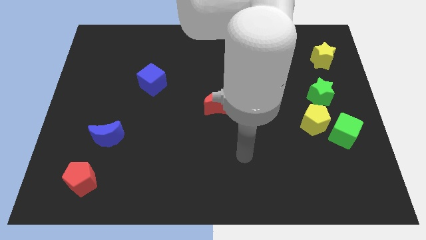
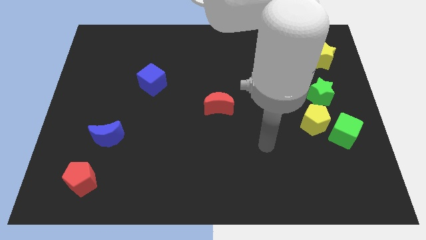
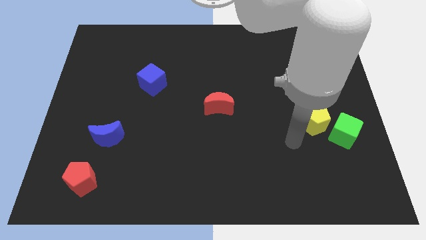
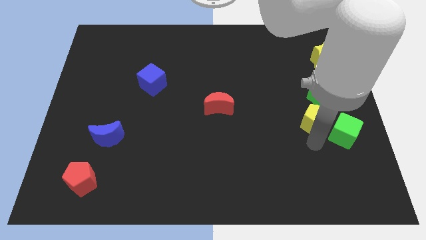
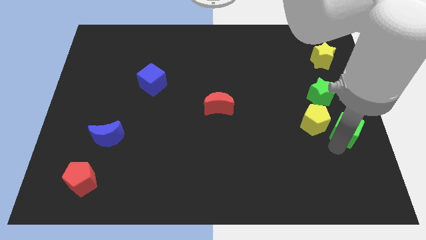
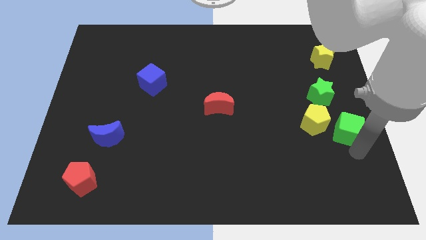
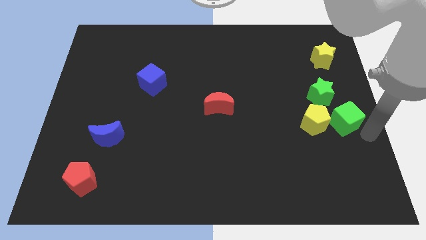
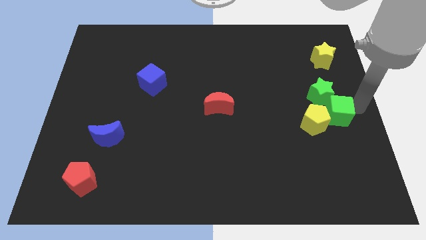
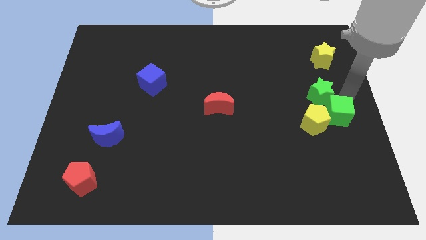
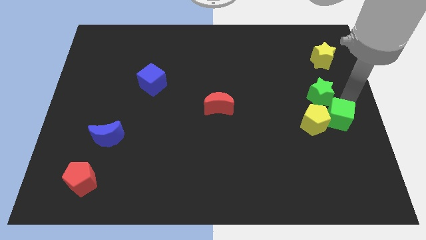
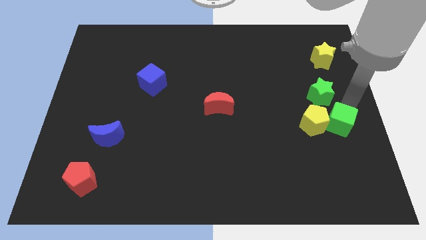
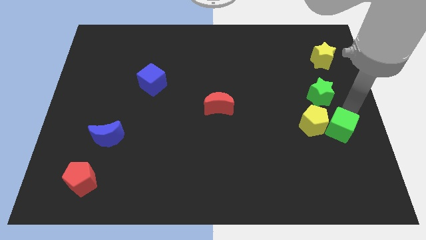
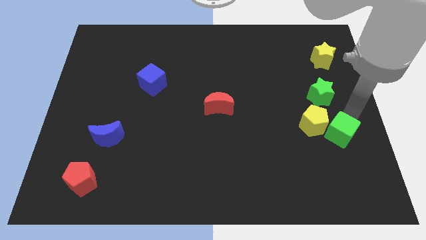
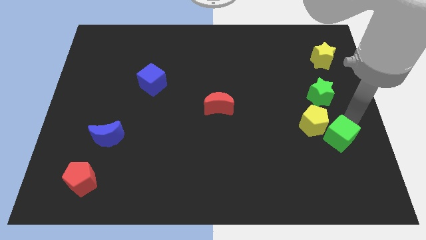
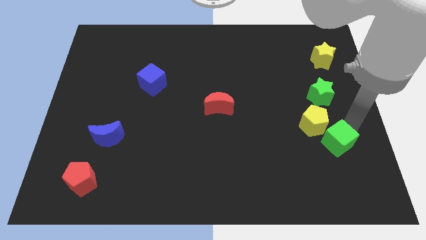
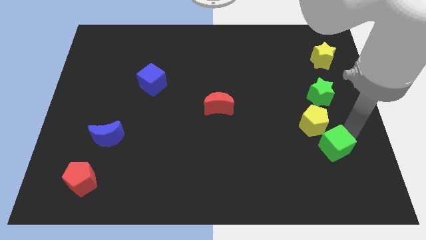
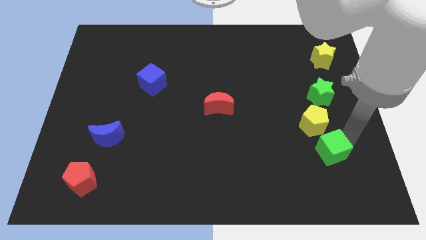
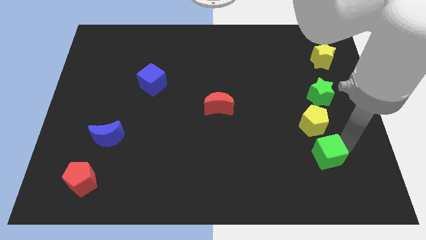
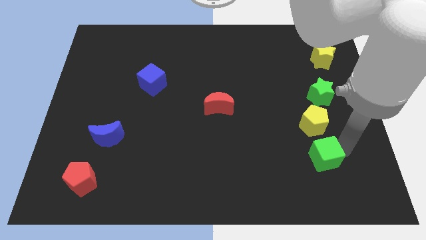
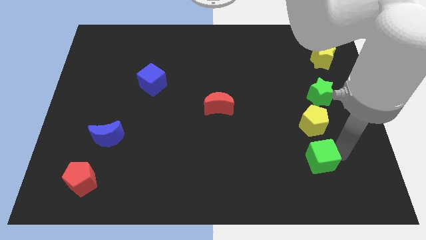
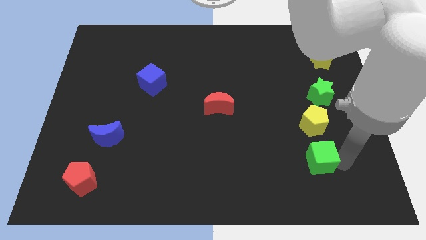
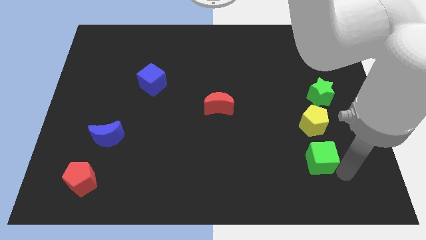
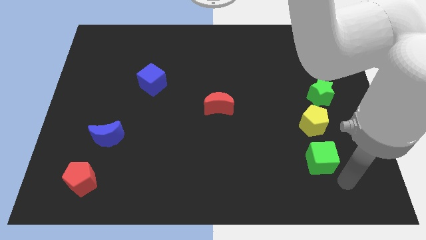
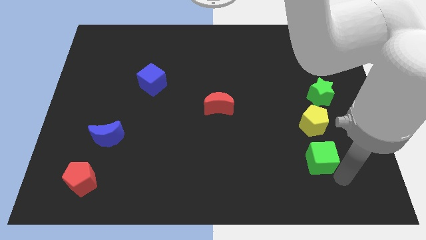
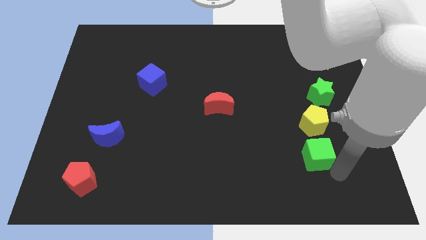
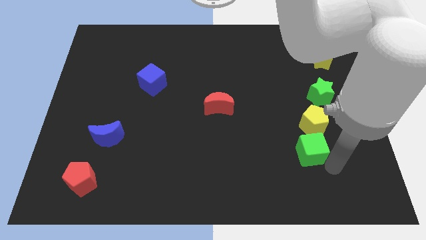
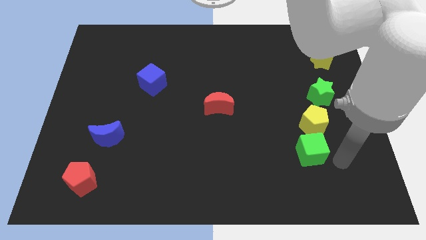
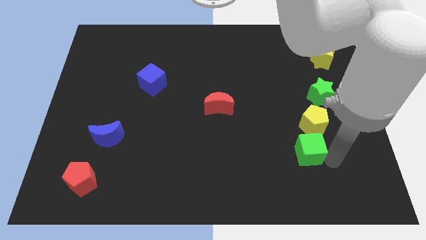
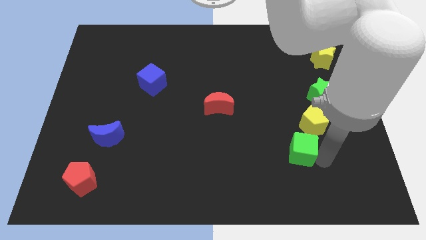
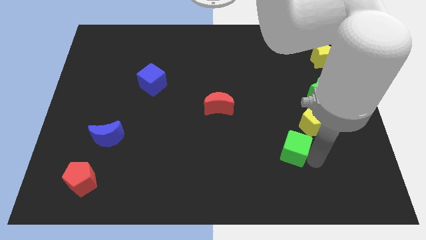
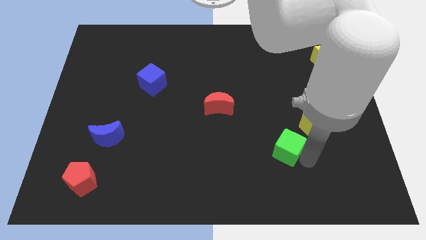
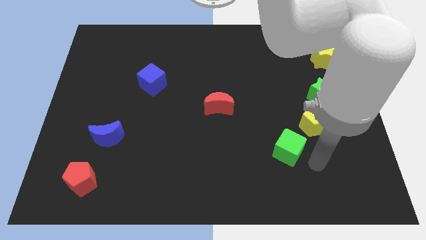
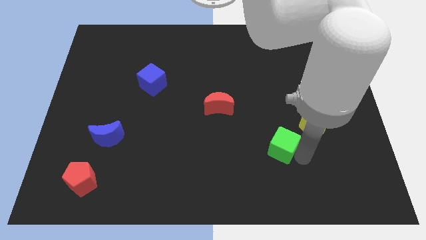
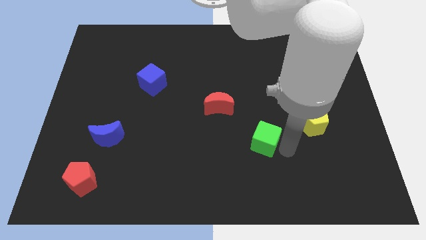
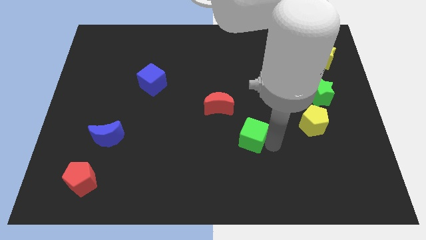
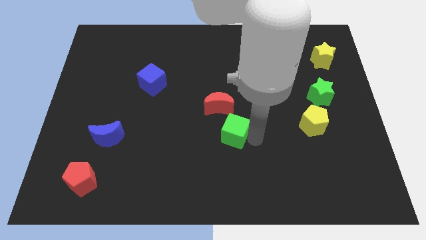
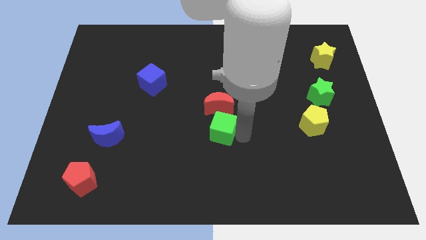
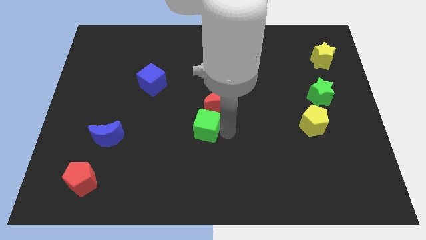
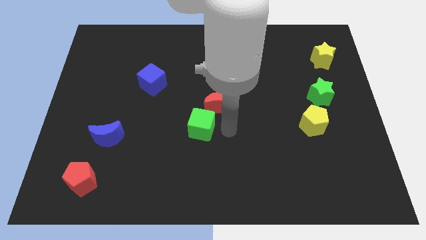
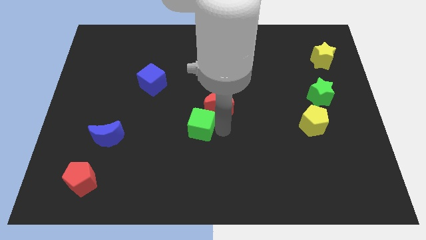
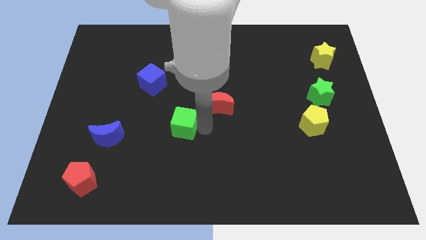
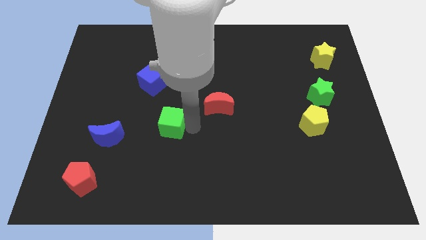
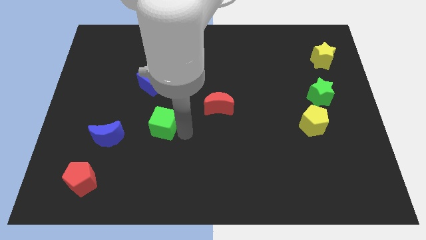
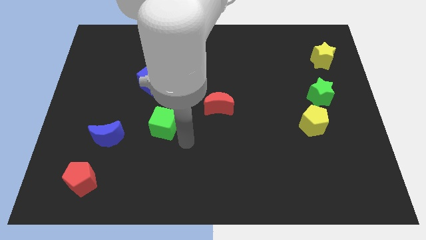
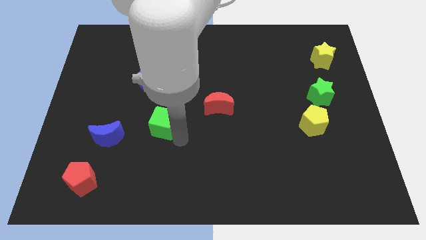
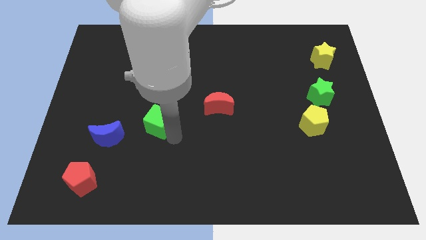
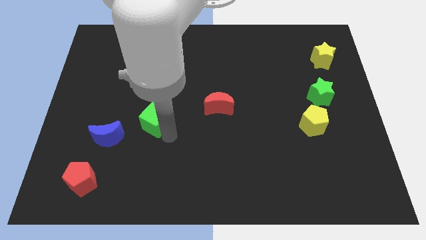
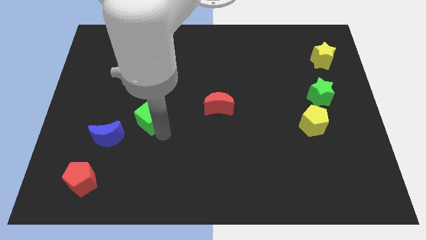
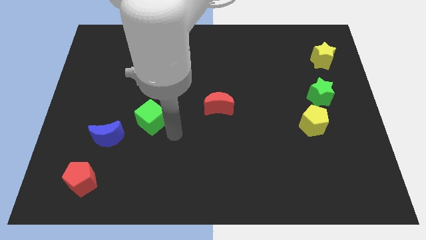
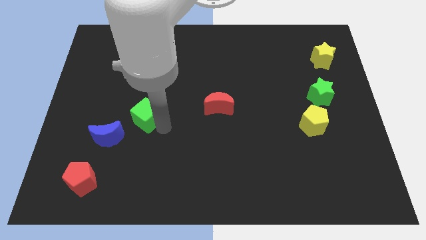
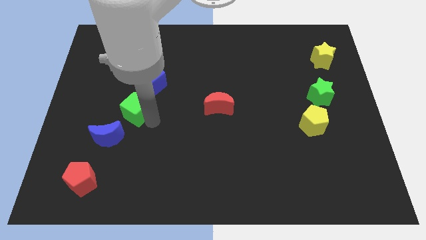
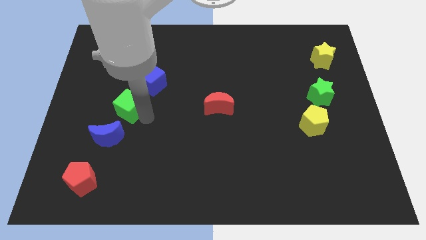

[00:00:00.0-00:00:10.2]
put the green cube to the top of the blue moon

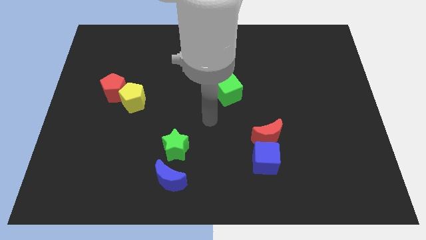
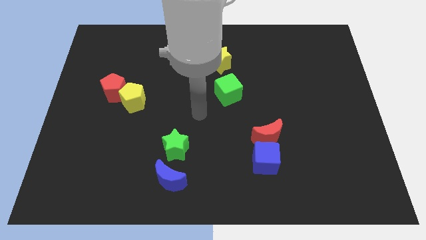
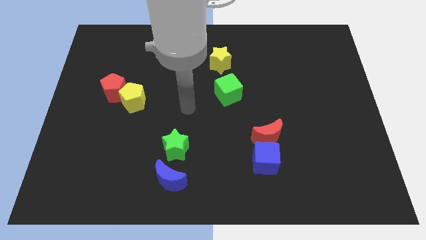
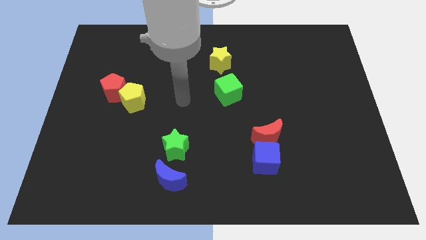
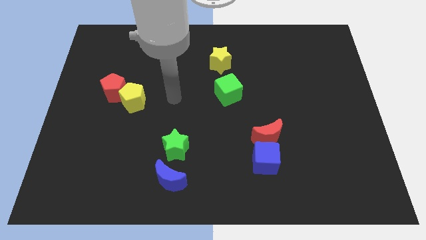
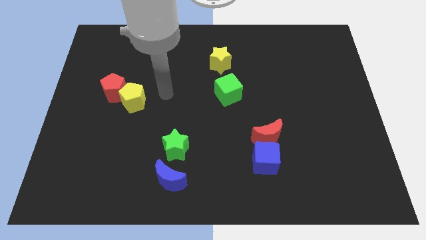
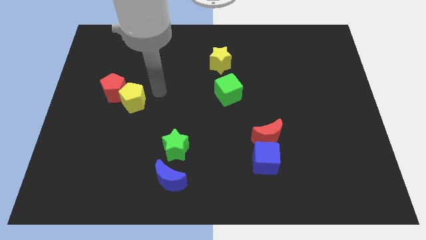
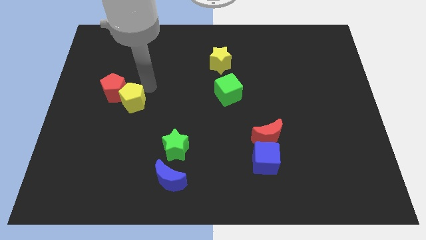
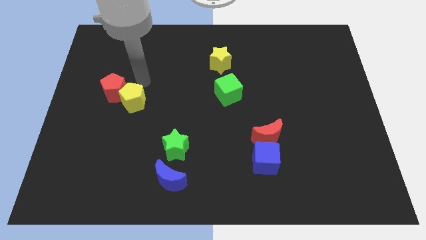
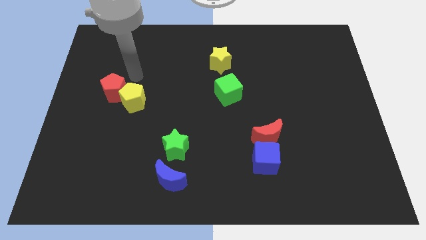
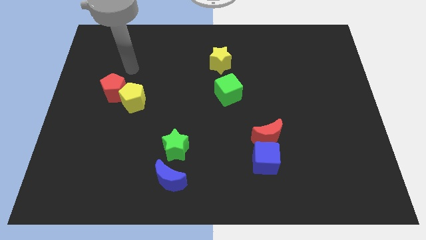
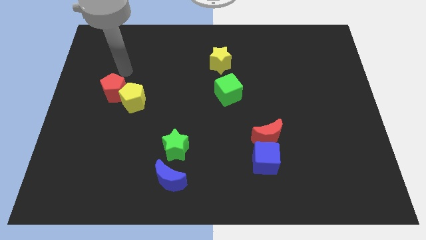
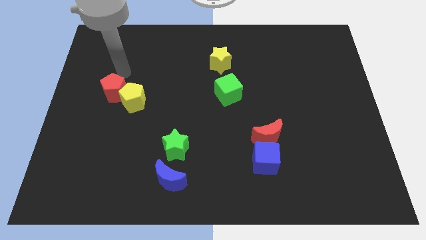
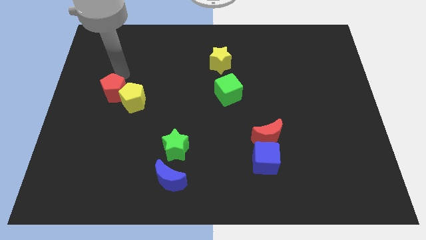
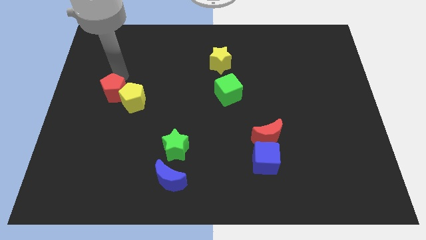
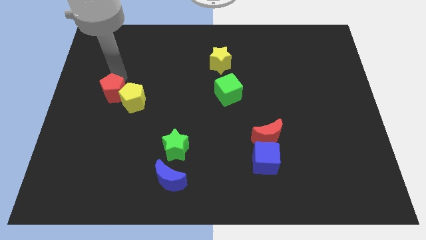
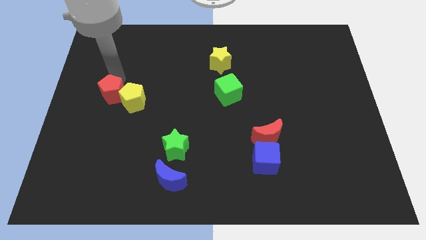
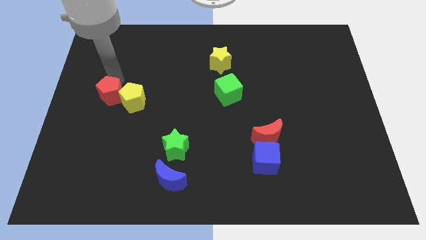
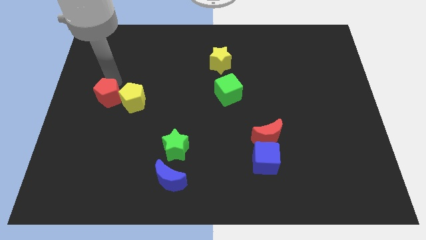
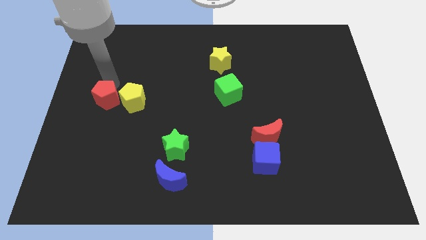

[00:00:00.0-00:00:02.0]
put the red pentagon to the bottom left side of the yellow pentagon
